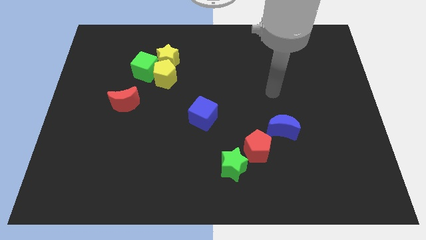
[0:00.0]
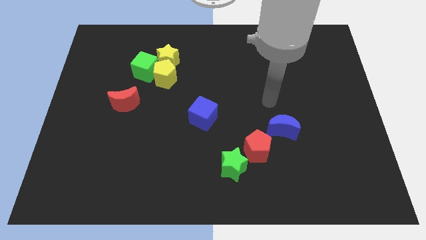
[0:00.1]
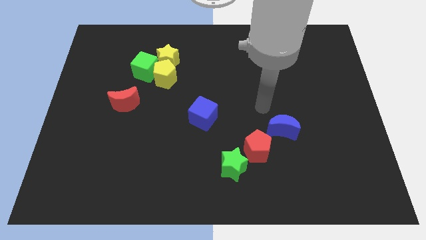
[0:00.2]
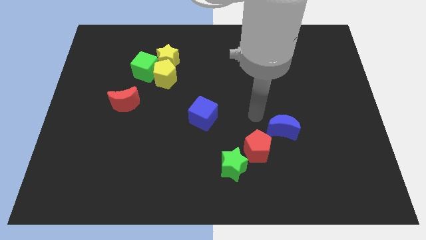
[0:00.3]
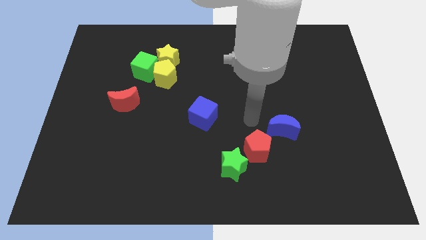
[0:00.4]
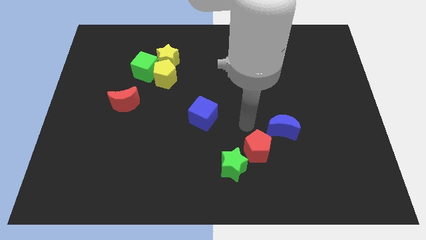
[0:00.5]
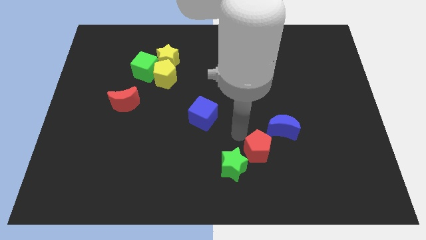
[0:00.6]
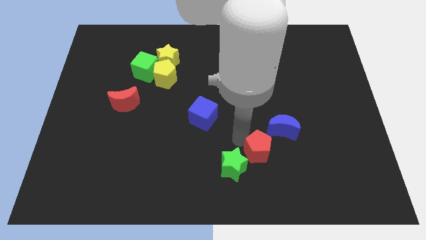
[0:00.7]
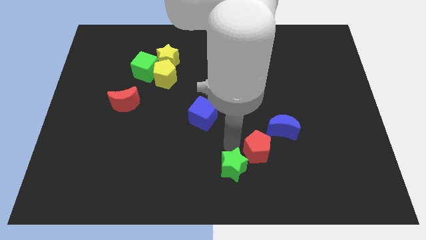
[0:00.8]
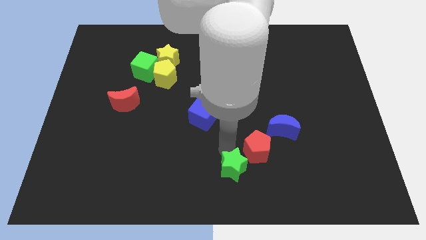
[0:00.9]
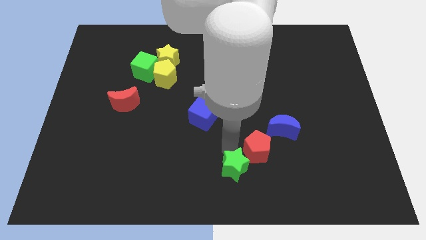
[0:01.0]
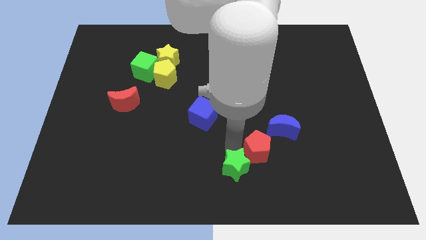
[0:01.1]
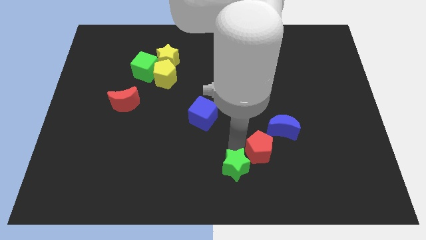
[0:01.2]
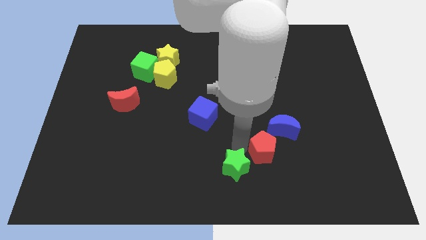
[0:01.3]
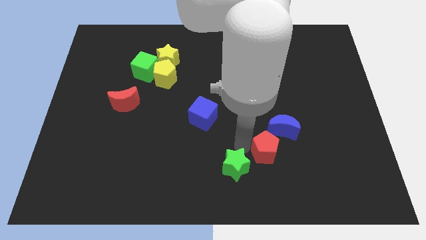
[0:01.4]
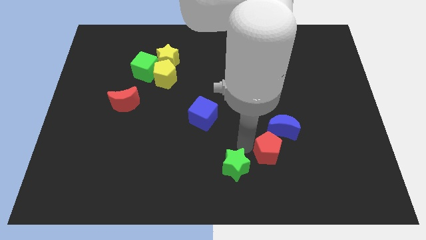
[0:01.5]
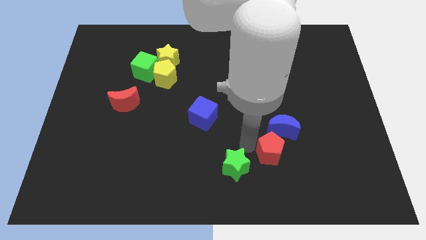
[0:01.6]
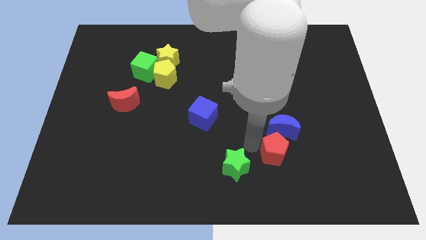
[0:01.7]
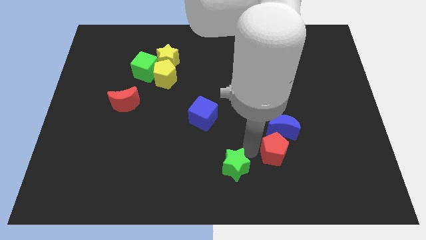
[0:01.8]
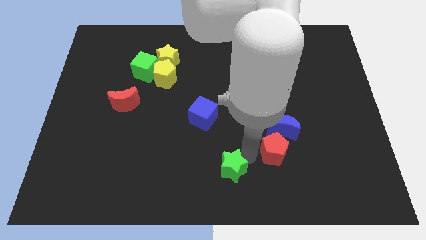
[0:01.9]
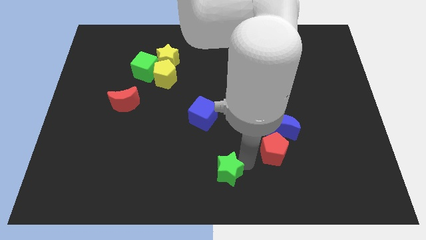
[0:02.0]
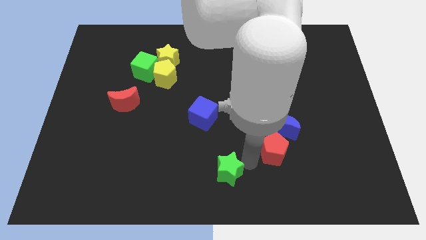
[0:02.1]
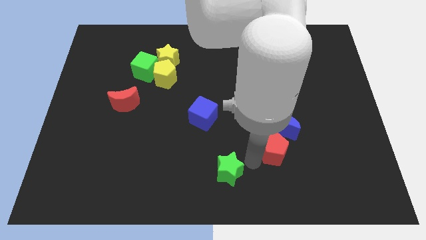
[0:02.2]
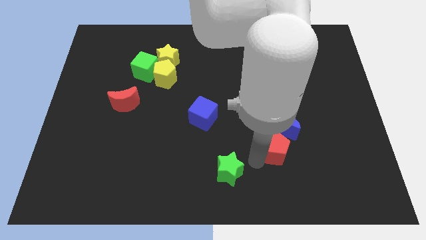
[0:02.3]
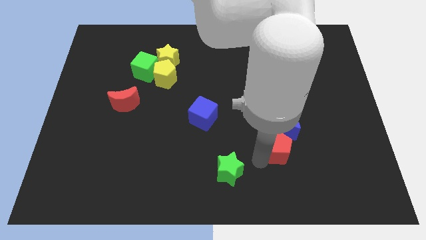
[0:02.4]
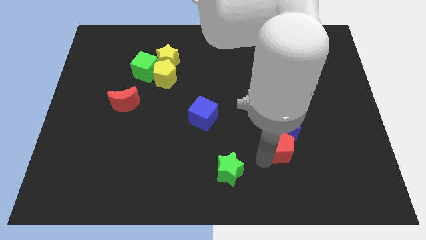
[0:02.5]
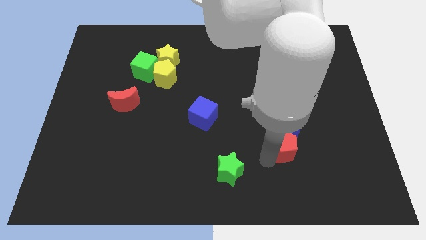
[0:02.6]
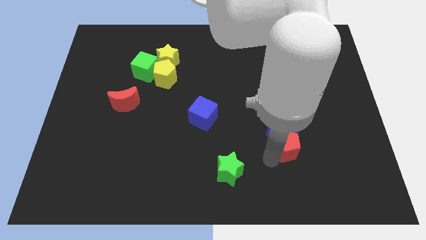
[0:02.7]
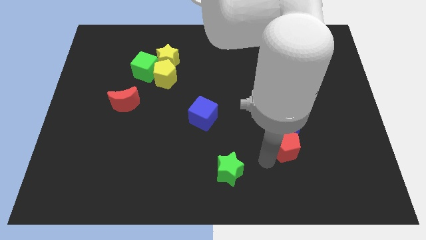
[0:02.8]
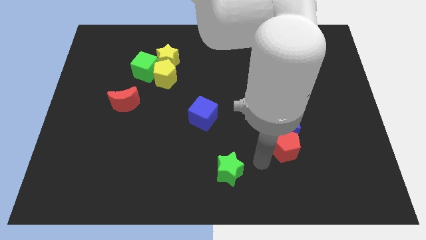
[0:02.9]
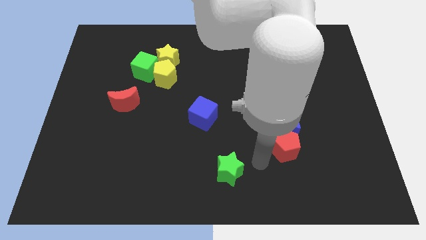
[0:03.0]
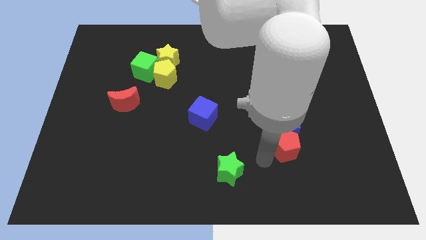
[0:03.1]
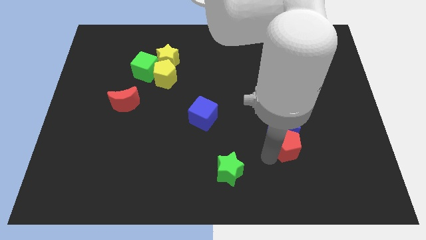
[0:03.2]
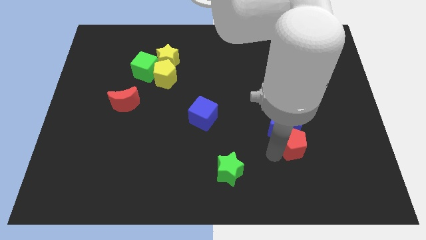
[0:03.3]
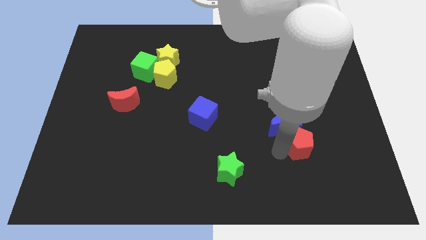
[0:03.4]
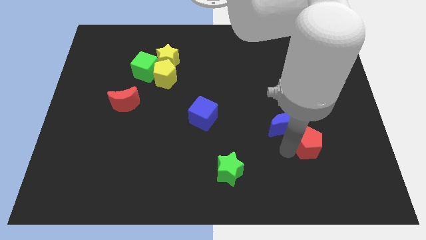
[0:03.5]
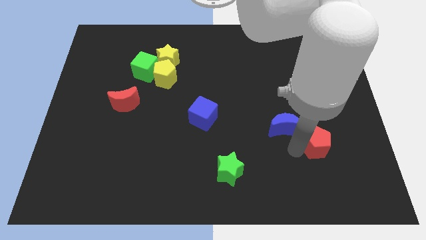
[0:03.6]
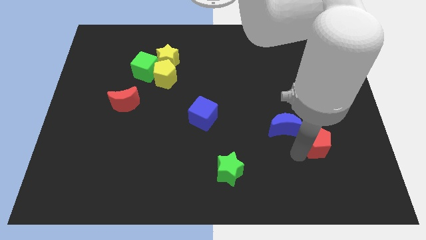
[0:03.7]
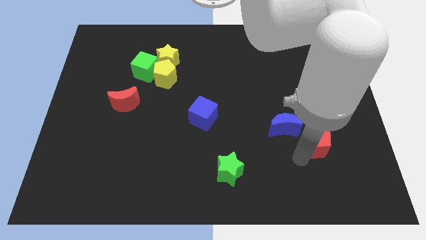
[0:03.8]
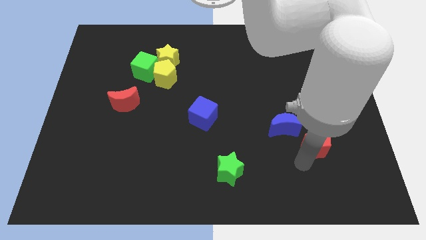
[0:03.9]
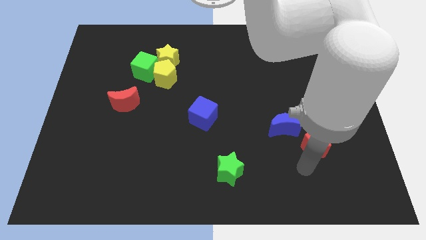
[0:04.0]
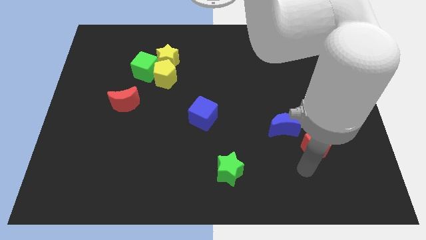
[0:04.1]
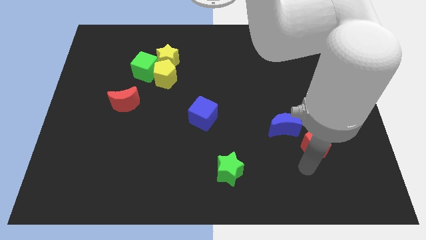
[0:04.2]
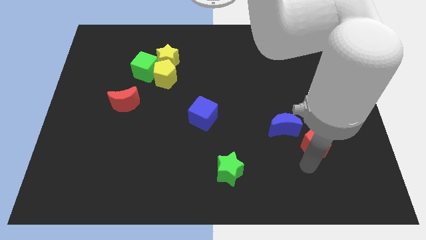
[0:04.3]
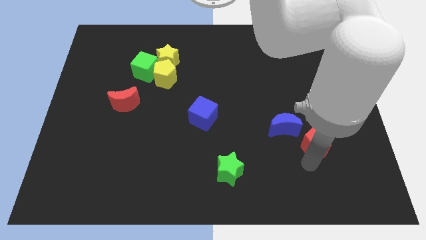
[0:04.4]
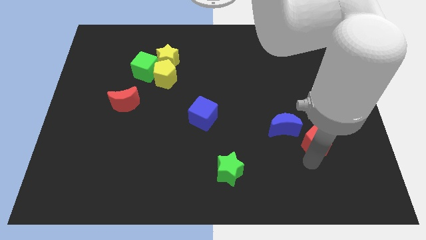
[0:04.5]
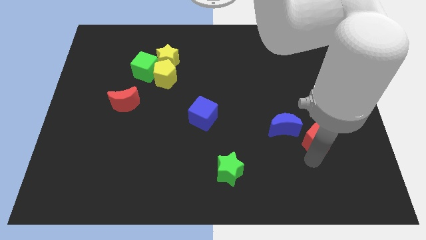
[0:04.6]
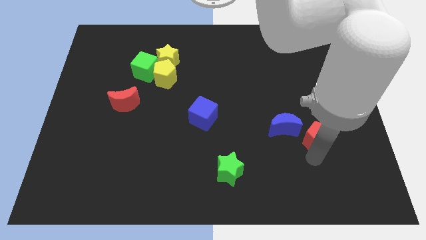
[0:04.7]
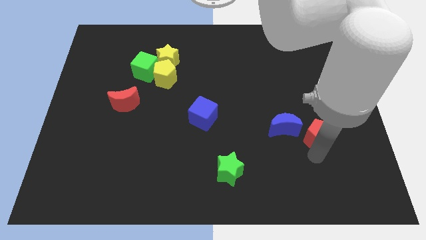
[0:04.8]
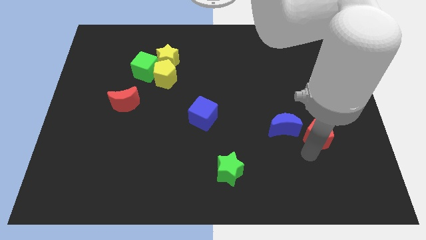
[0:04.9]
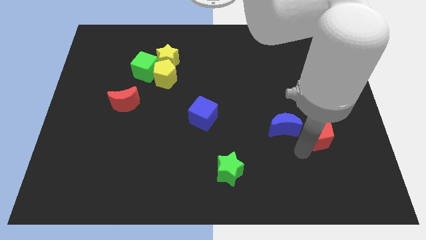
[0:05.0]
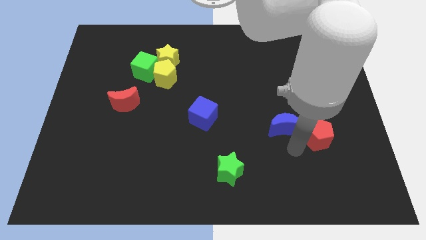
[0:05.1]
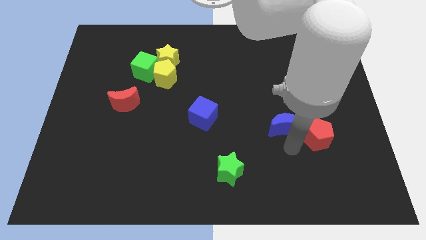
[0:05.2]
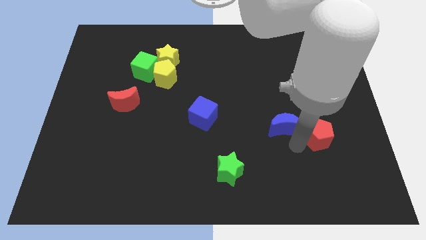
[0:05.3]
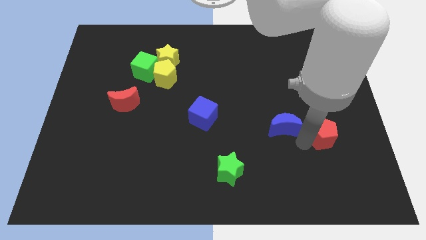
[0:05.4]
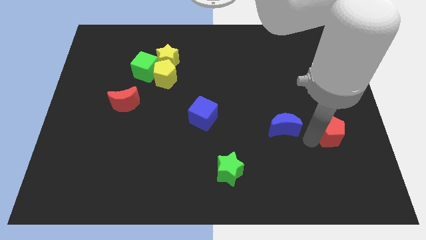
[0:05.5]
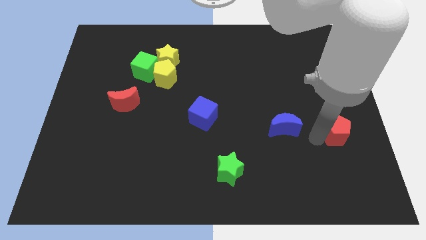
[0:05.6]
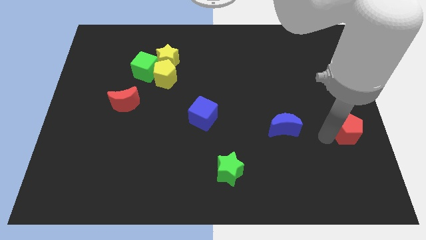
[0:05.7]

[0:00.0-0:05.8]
move the red pentagon to the right side
